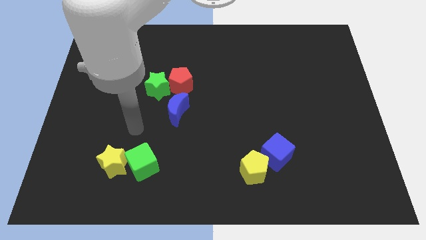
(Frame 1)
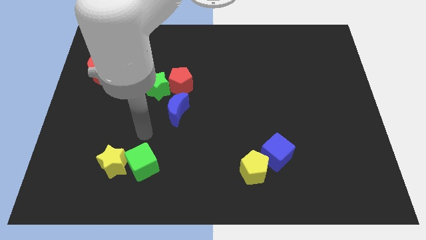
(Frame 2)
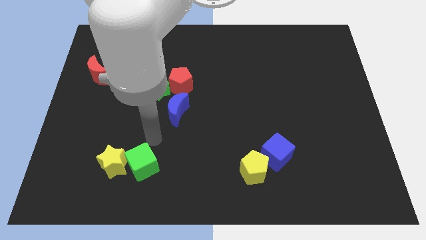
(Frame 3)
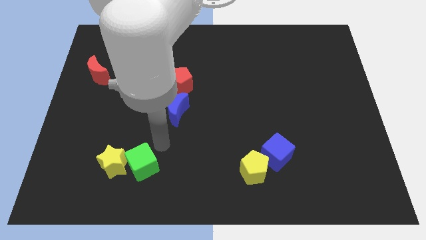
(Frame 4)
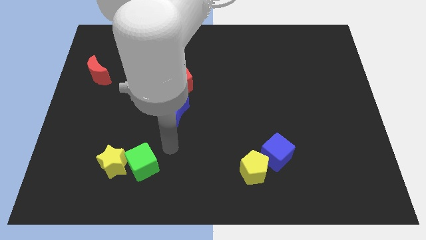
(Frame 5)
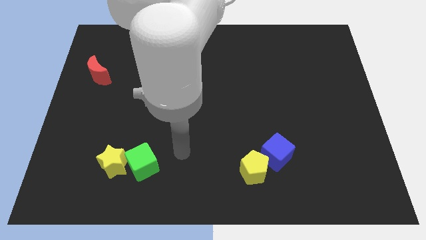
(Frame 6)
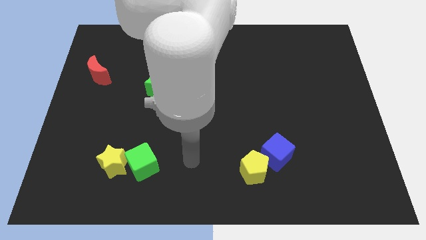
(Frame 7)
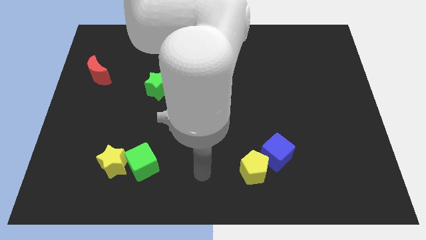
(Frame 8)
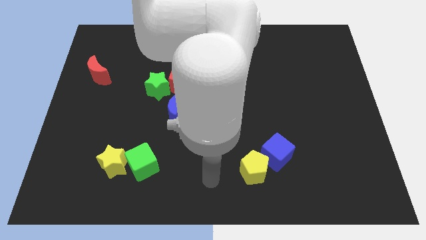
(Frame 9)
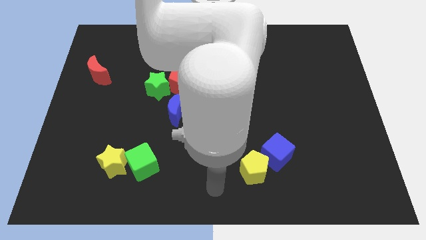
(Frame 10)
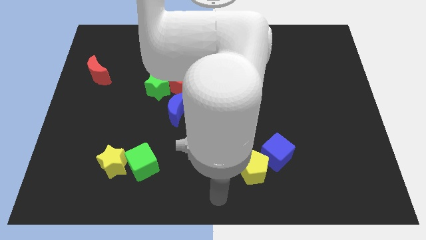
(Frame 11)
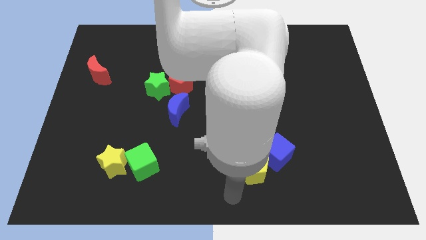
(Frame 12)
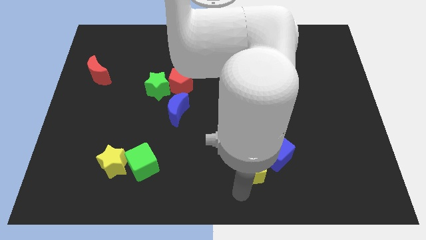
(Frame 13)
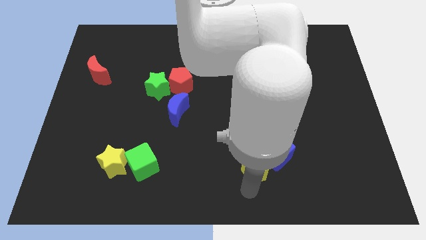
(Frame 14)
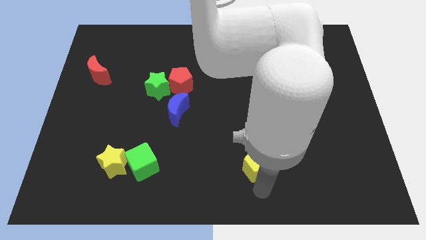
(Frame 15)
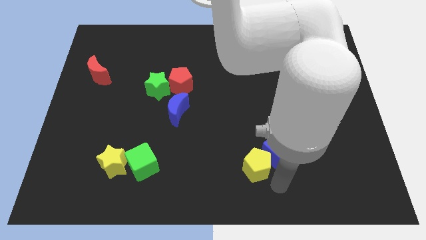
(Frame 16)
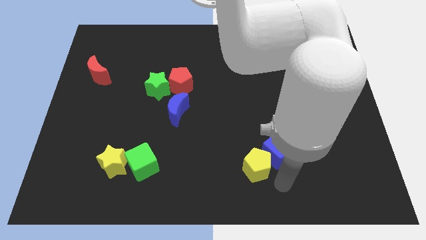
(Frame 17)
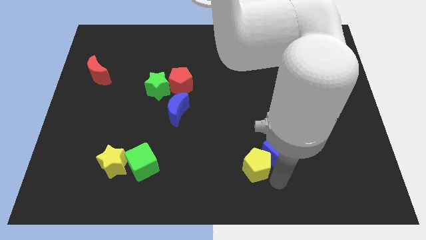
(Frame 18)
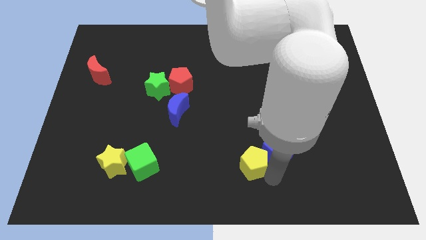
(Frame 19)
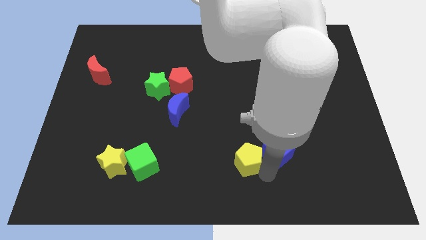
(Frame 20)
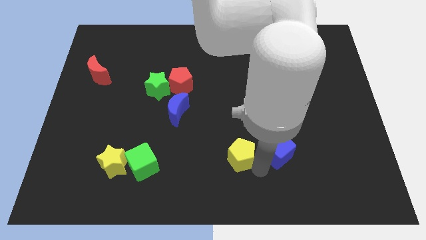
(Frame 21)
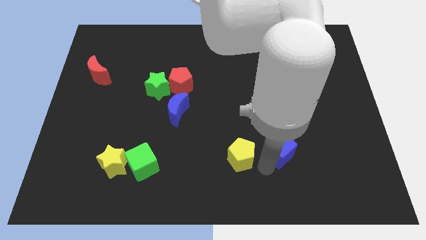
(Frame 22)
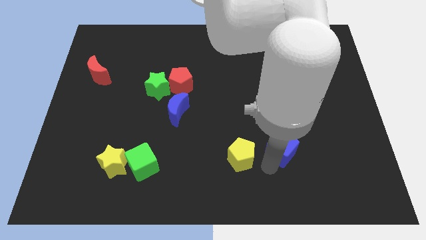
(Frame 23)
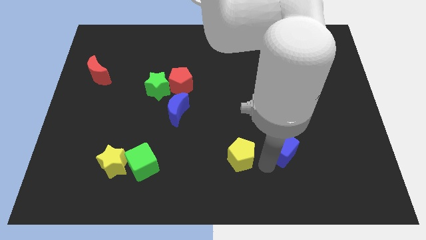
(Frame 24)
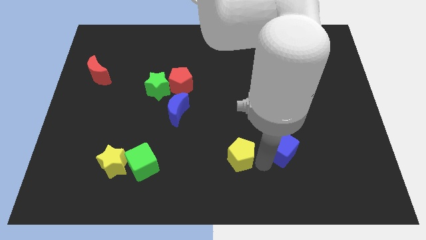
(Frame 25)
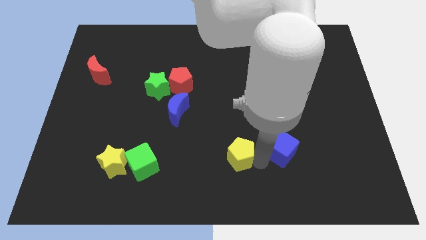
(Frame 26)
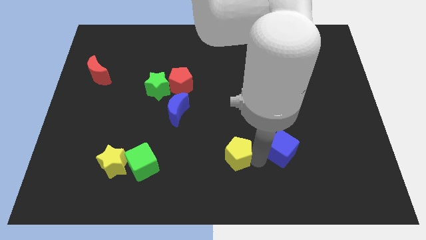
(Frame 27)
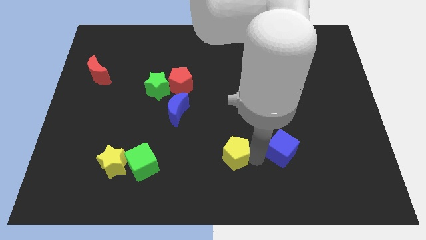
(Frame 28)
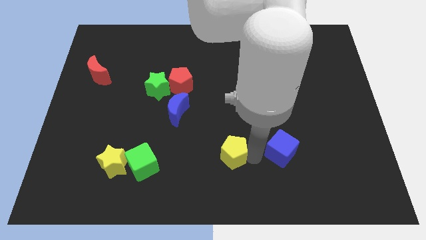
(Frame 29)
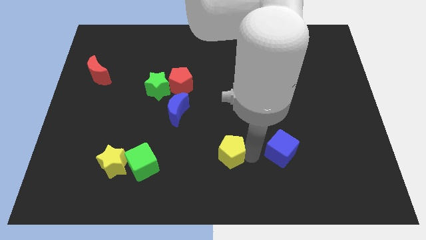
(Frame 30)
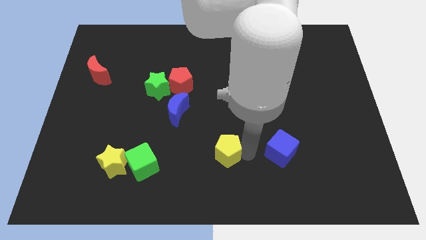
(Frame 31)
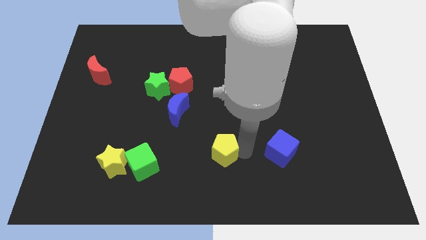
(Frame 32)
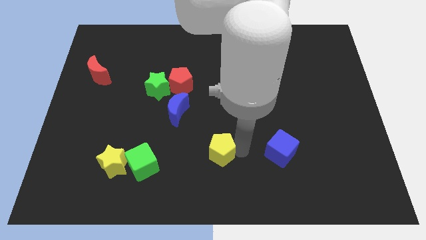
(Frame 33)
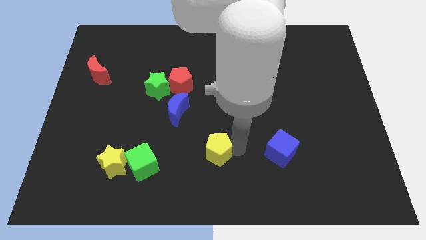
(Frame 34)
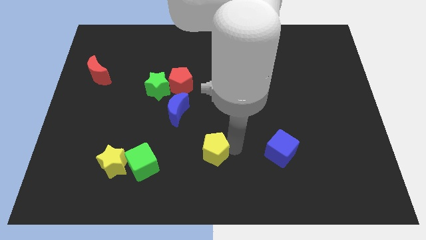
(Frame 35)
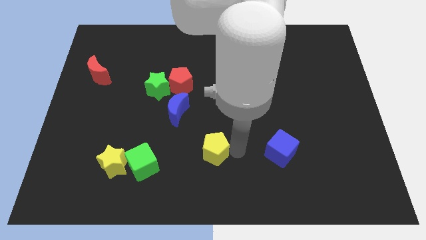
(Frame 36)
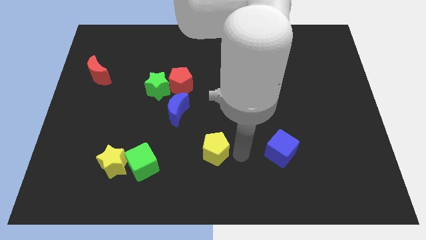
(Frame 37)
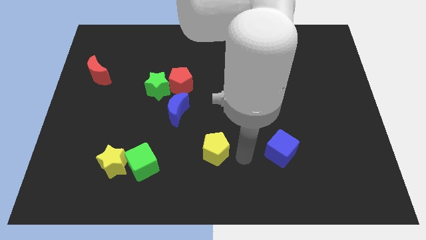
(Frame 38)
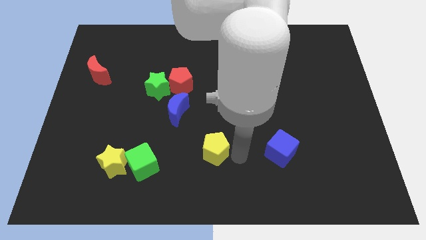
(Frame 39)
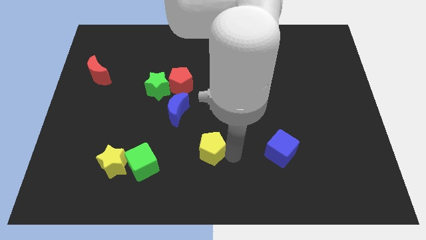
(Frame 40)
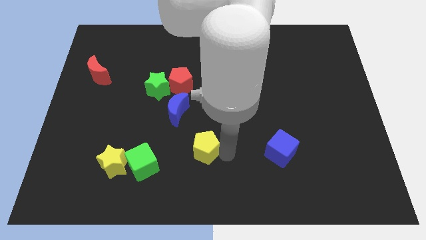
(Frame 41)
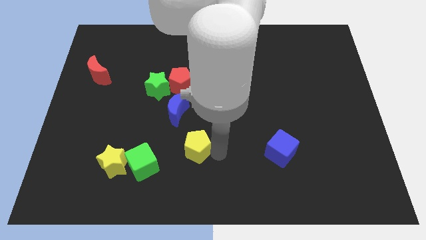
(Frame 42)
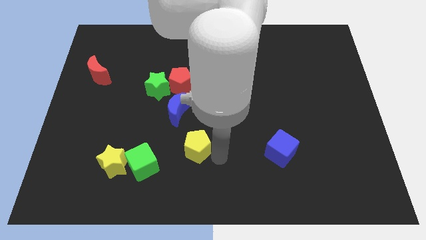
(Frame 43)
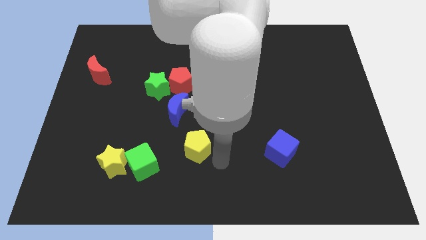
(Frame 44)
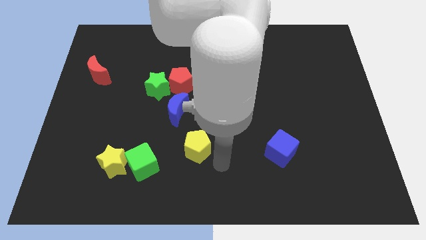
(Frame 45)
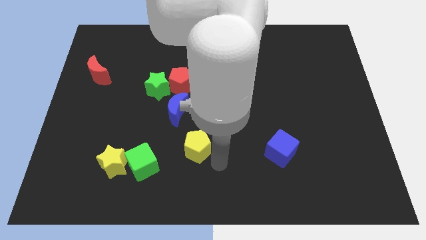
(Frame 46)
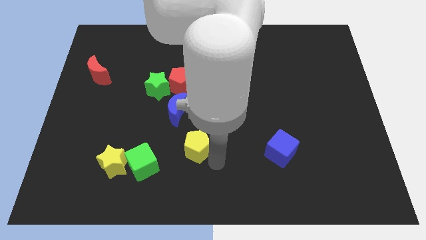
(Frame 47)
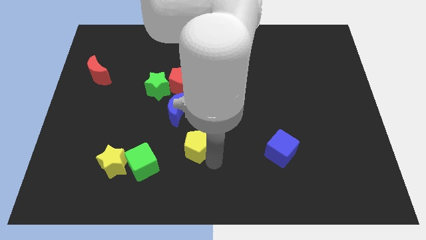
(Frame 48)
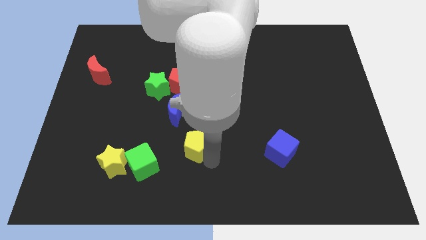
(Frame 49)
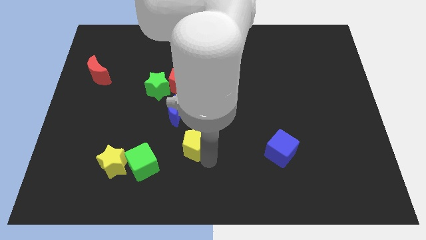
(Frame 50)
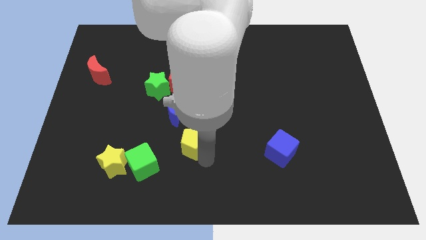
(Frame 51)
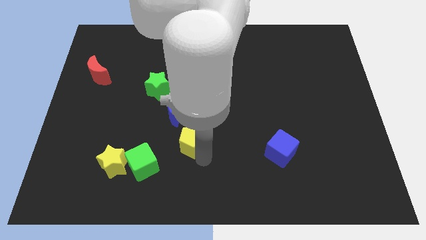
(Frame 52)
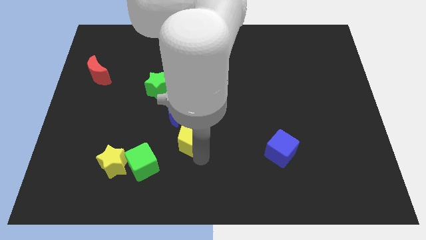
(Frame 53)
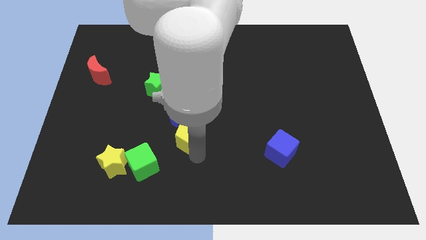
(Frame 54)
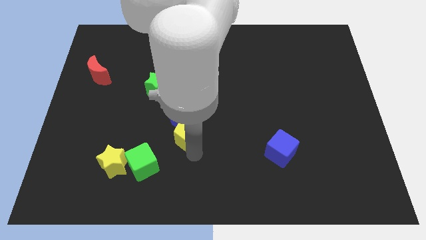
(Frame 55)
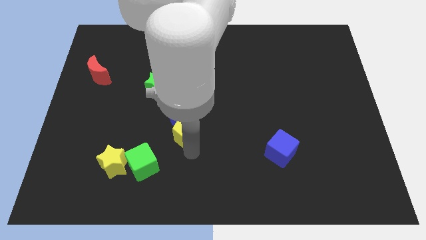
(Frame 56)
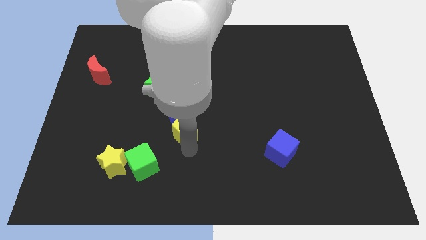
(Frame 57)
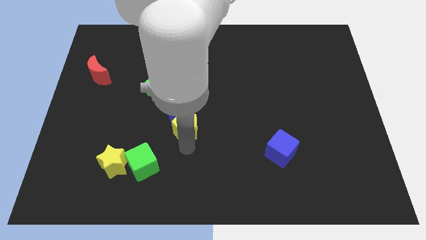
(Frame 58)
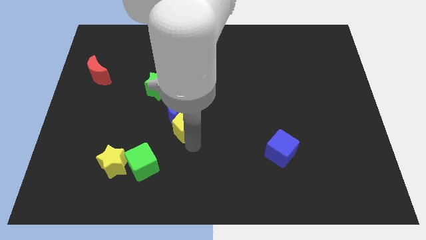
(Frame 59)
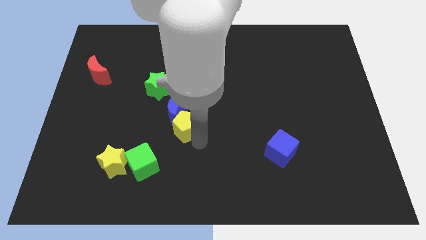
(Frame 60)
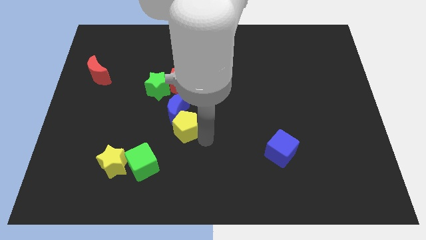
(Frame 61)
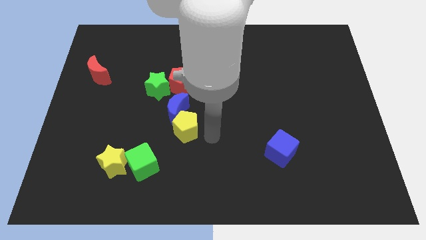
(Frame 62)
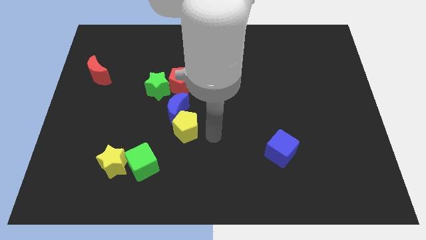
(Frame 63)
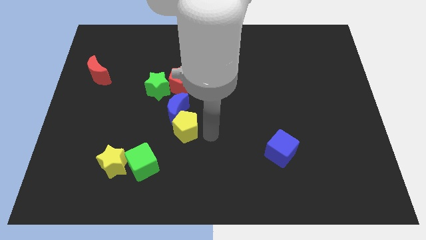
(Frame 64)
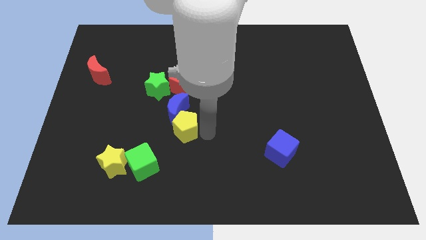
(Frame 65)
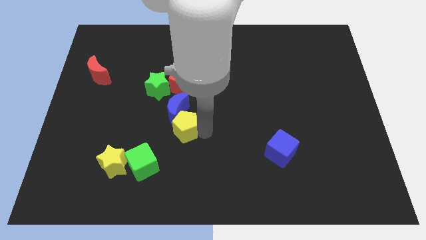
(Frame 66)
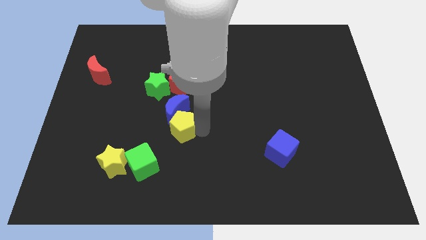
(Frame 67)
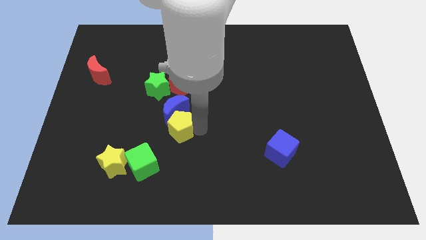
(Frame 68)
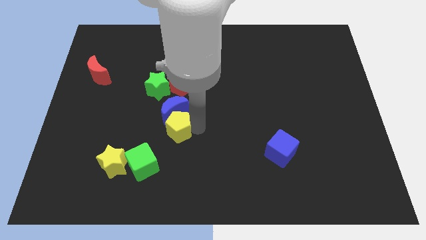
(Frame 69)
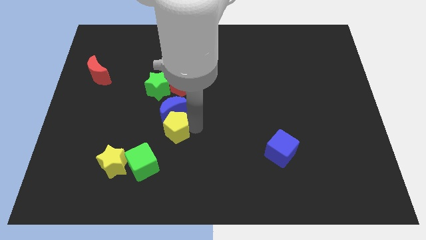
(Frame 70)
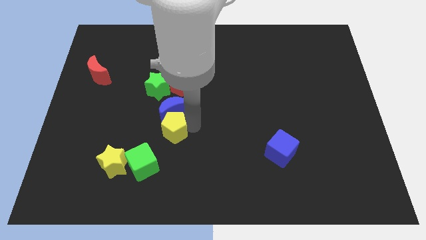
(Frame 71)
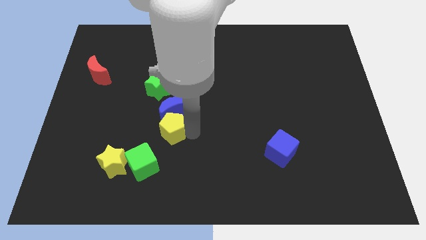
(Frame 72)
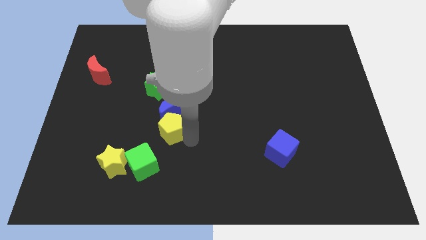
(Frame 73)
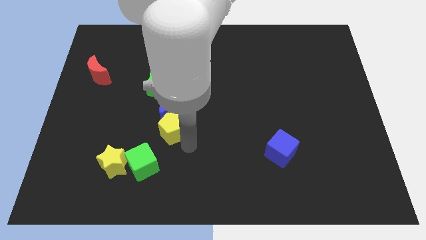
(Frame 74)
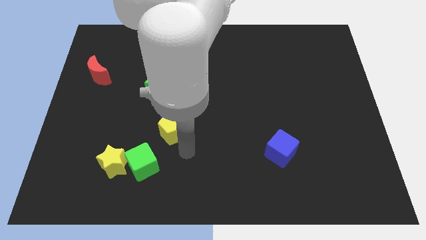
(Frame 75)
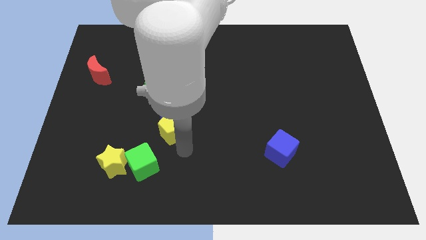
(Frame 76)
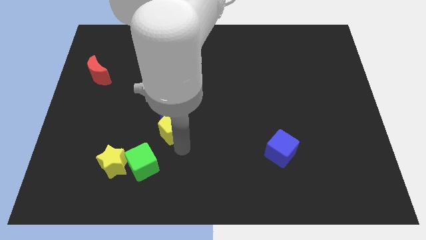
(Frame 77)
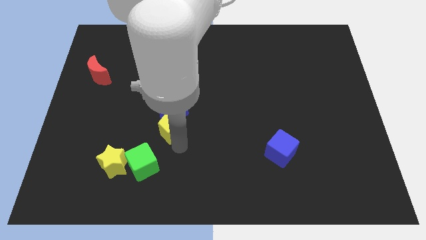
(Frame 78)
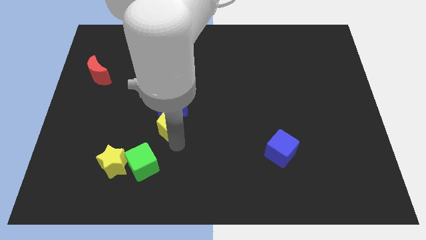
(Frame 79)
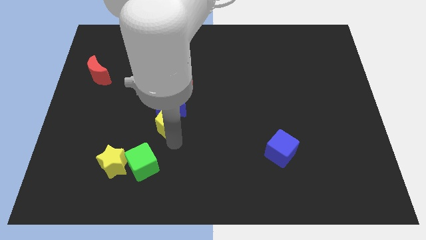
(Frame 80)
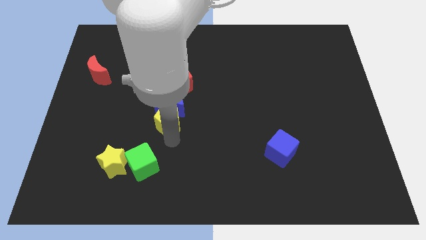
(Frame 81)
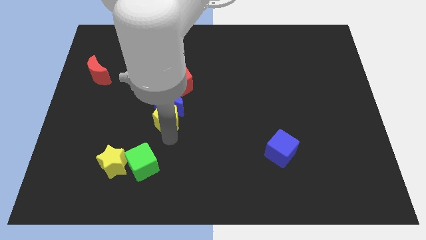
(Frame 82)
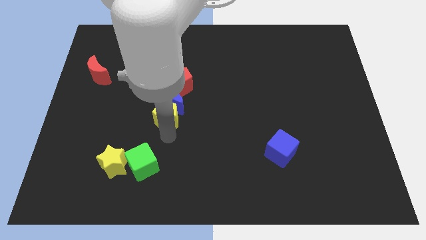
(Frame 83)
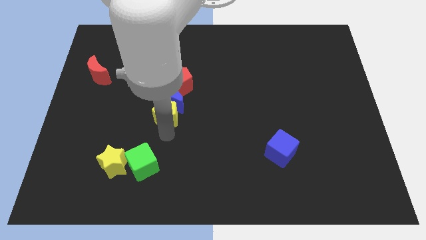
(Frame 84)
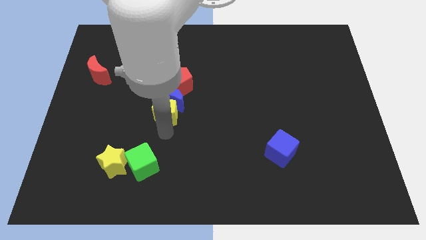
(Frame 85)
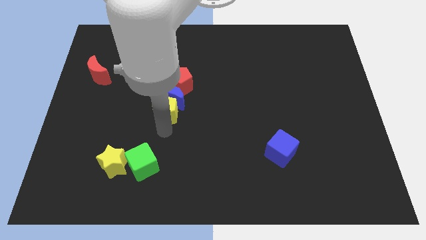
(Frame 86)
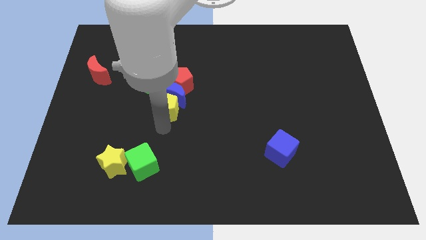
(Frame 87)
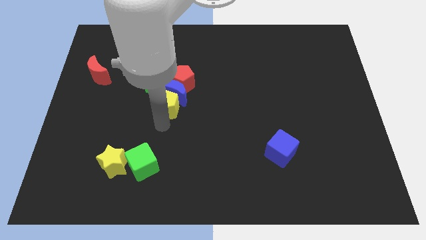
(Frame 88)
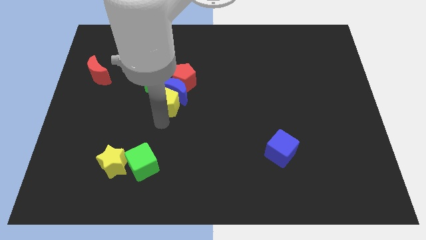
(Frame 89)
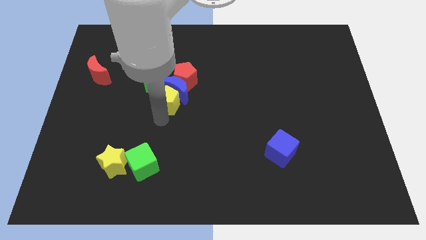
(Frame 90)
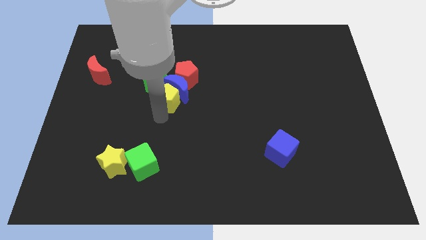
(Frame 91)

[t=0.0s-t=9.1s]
push the yellow pentagon next to the green star
